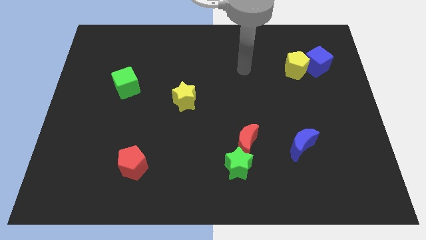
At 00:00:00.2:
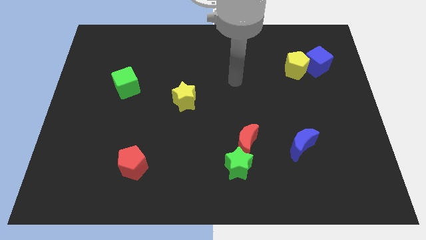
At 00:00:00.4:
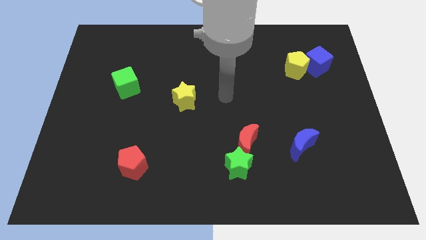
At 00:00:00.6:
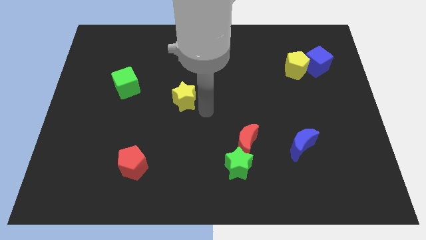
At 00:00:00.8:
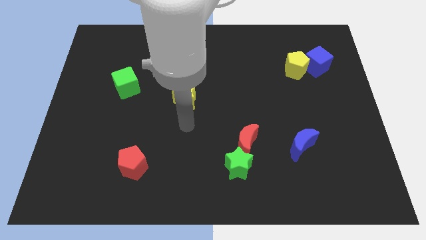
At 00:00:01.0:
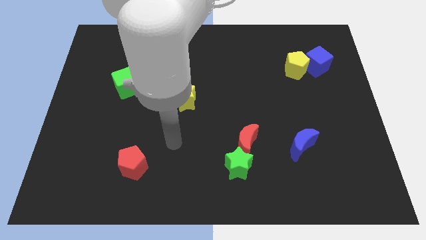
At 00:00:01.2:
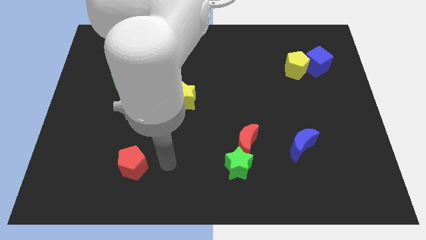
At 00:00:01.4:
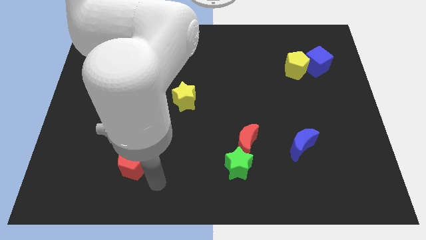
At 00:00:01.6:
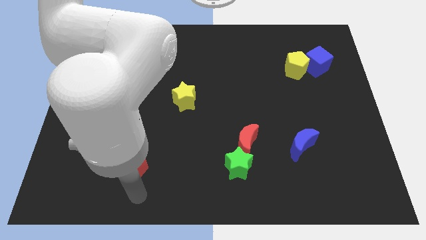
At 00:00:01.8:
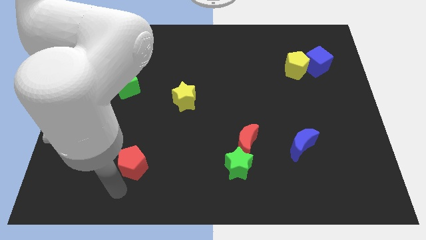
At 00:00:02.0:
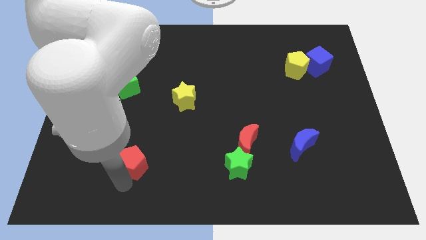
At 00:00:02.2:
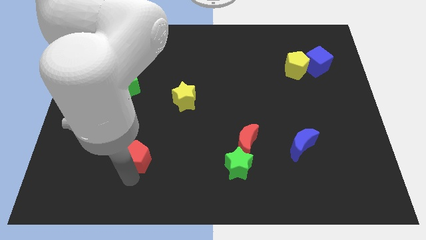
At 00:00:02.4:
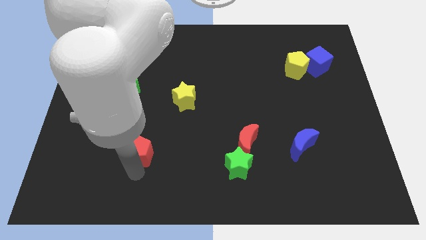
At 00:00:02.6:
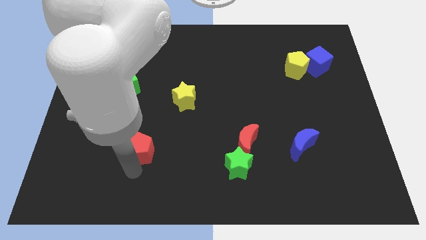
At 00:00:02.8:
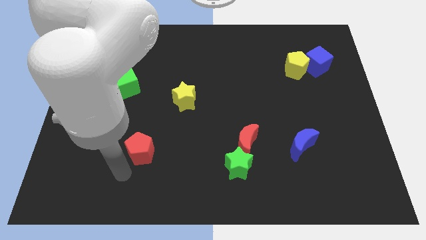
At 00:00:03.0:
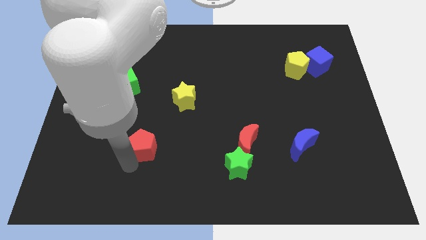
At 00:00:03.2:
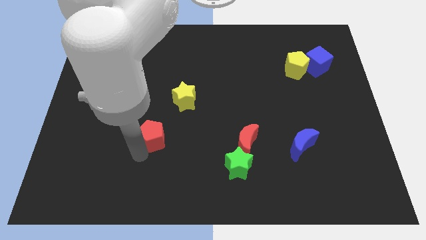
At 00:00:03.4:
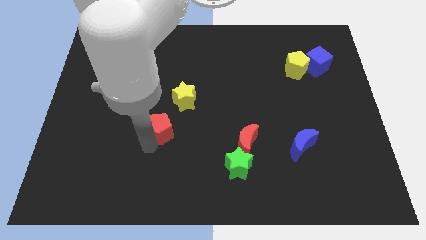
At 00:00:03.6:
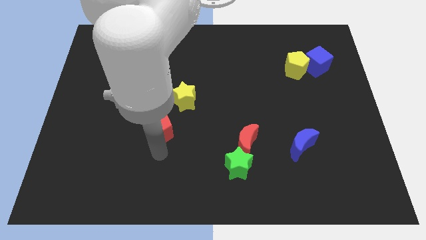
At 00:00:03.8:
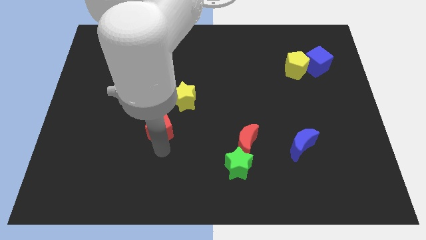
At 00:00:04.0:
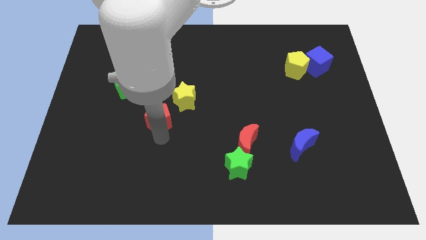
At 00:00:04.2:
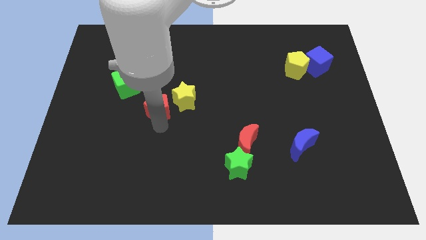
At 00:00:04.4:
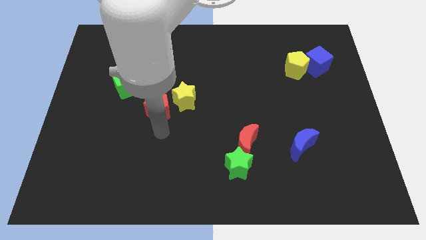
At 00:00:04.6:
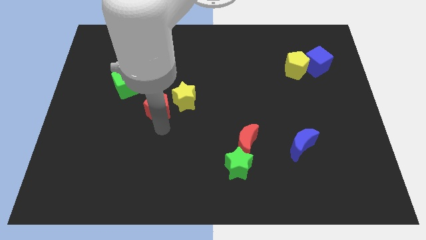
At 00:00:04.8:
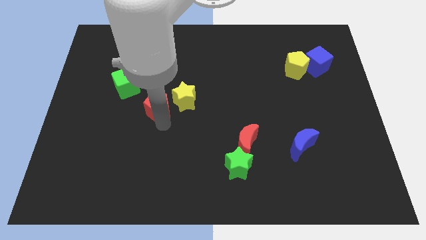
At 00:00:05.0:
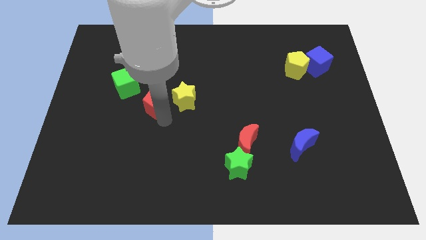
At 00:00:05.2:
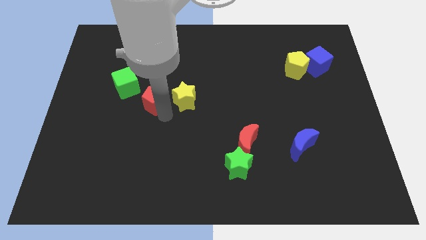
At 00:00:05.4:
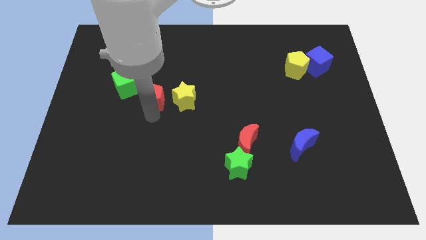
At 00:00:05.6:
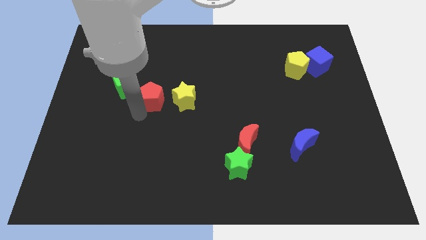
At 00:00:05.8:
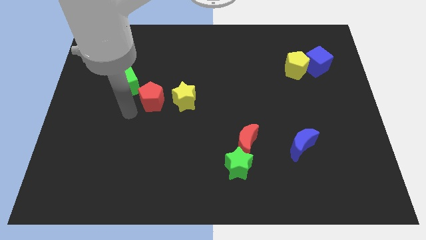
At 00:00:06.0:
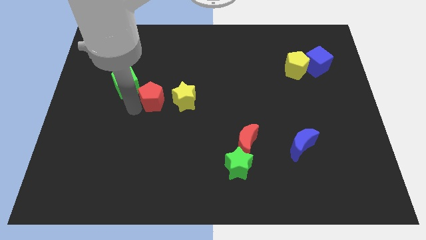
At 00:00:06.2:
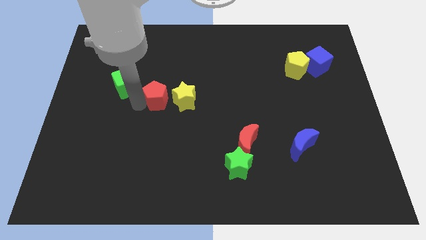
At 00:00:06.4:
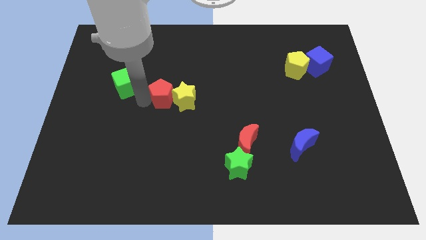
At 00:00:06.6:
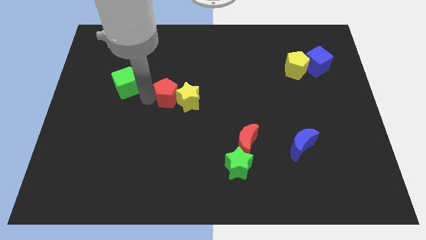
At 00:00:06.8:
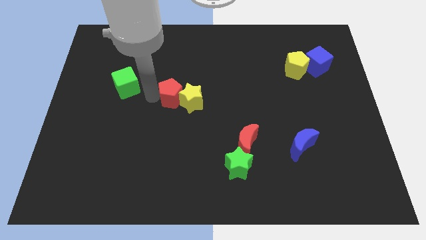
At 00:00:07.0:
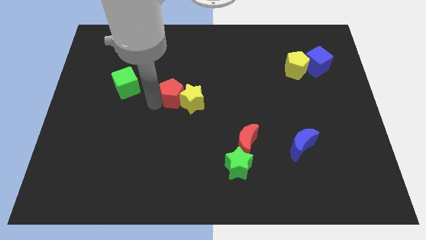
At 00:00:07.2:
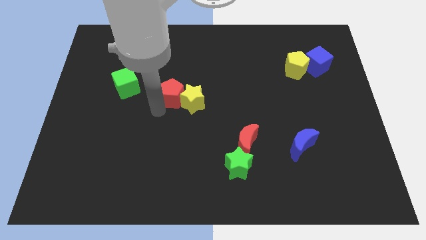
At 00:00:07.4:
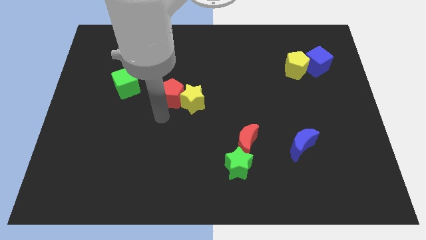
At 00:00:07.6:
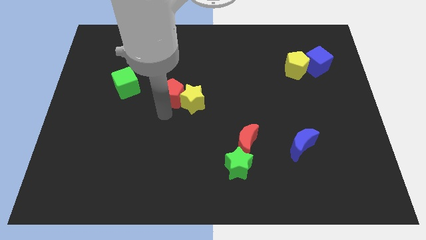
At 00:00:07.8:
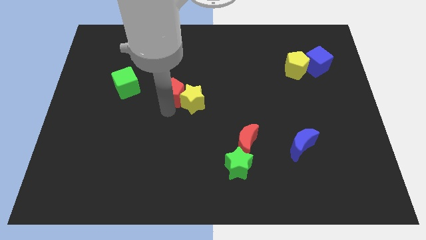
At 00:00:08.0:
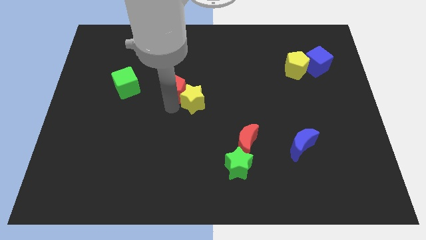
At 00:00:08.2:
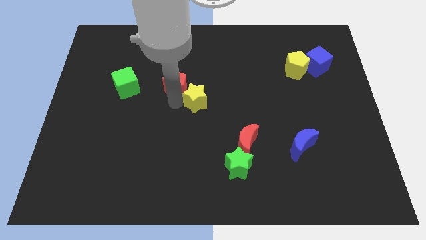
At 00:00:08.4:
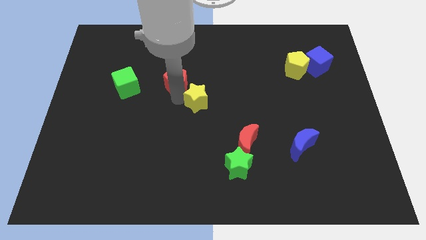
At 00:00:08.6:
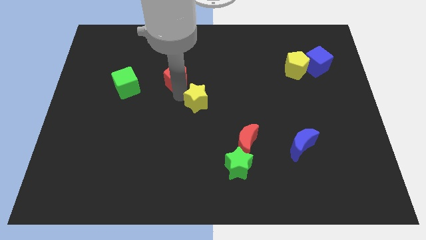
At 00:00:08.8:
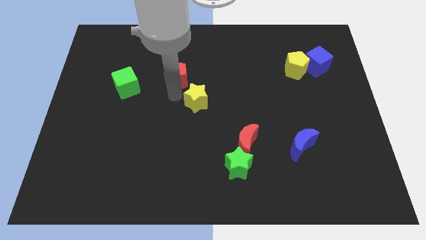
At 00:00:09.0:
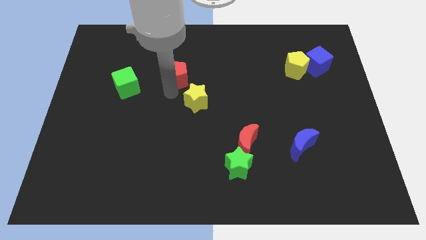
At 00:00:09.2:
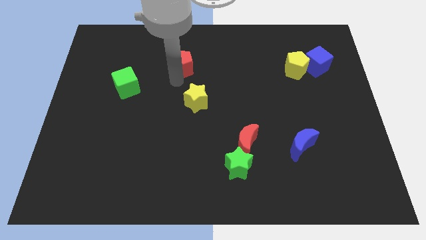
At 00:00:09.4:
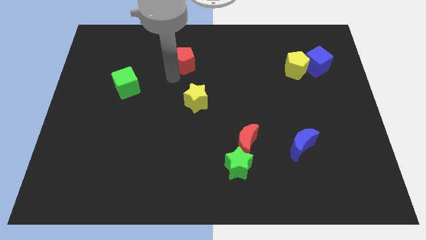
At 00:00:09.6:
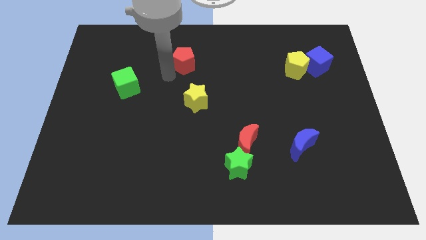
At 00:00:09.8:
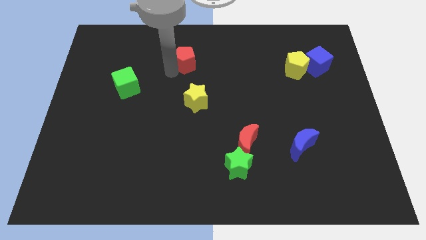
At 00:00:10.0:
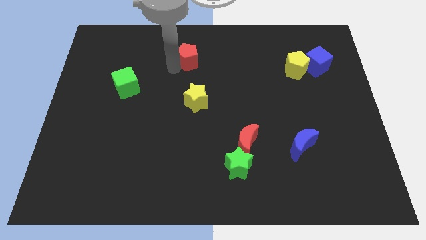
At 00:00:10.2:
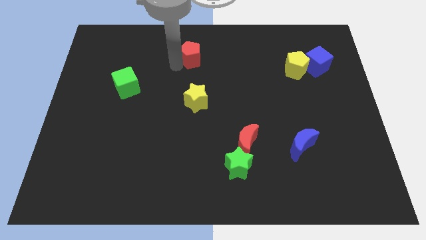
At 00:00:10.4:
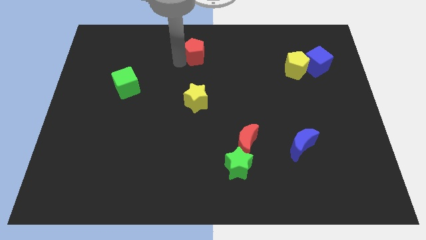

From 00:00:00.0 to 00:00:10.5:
put the red pentagon to the top

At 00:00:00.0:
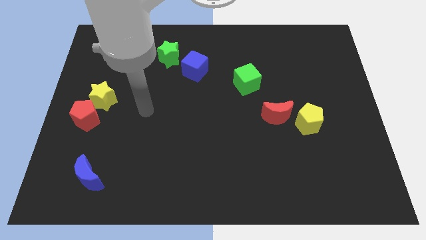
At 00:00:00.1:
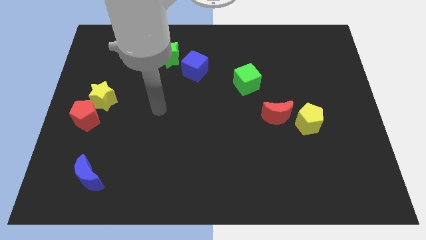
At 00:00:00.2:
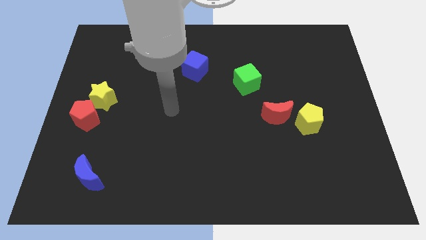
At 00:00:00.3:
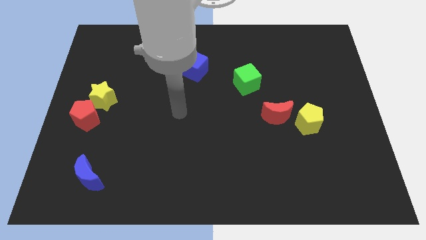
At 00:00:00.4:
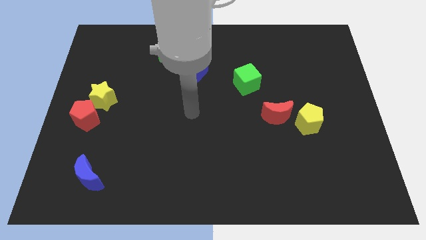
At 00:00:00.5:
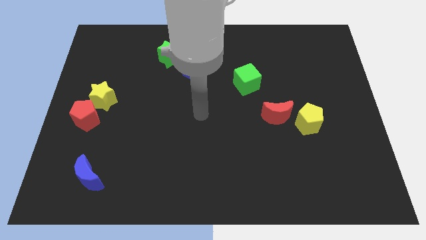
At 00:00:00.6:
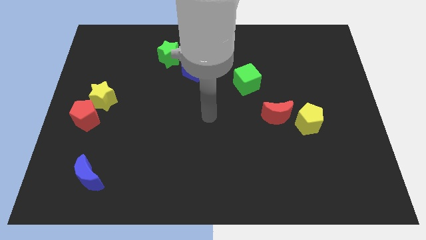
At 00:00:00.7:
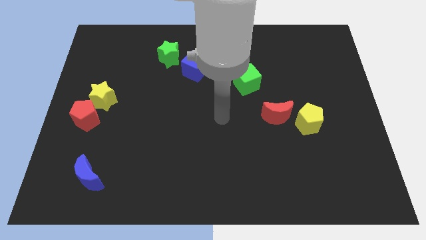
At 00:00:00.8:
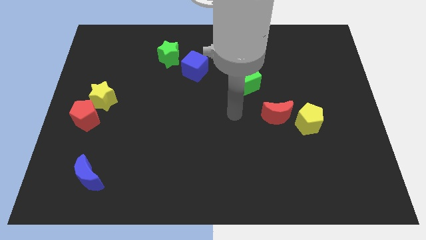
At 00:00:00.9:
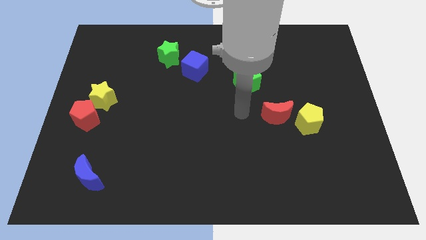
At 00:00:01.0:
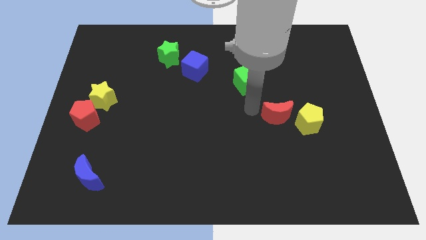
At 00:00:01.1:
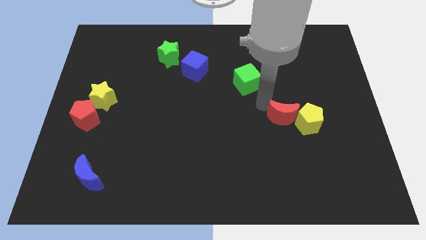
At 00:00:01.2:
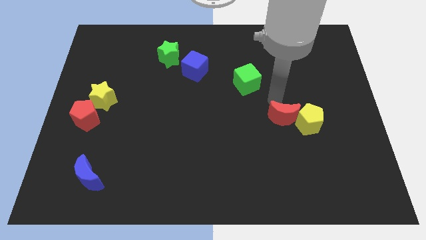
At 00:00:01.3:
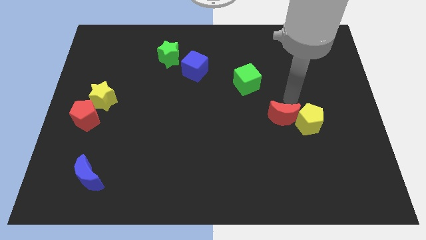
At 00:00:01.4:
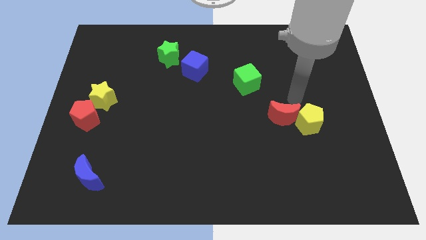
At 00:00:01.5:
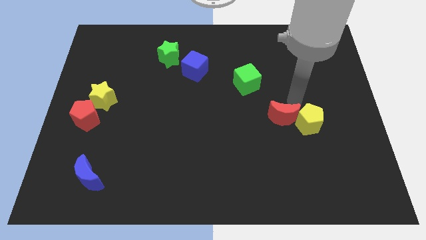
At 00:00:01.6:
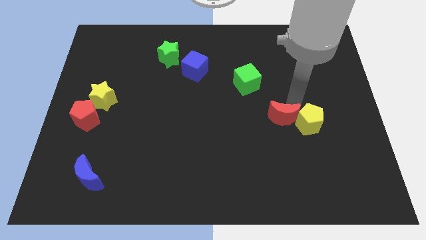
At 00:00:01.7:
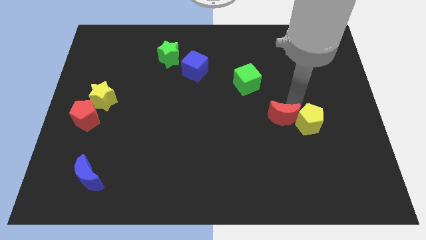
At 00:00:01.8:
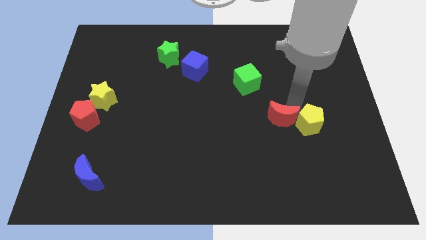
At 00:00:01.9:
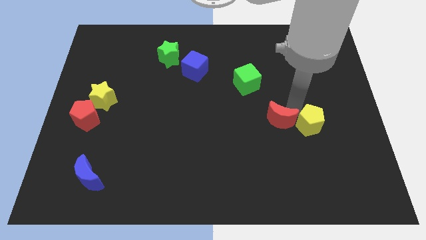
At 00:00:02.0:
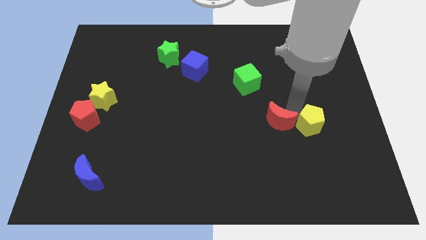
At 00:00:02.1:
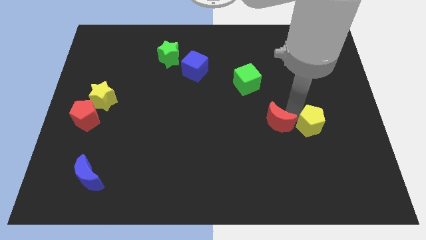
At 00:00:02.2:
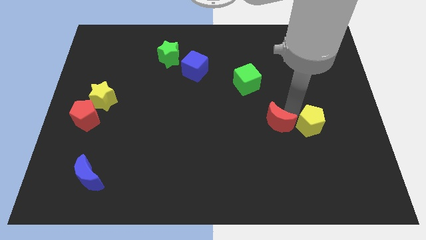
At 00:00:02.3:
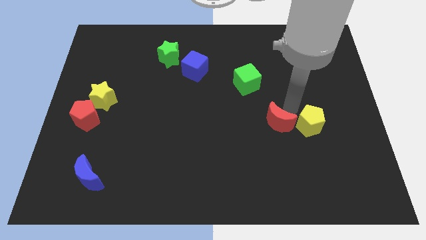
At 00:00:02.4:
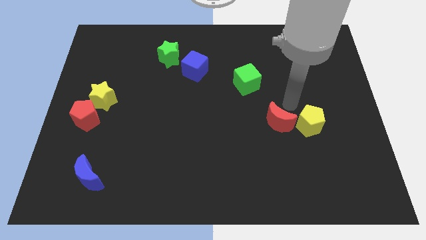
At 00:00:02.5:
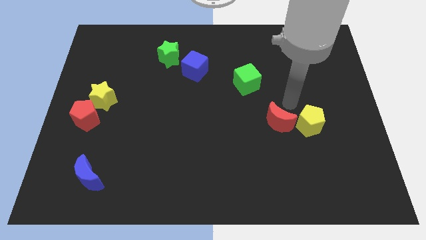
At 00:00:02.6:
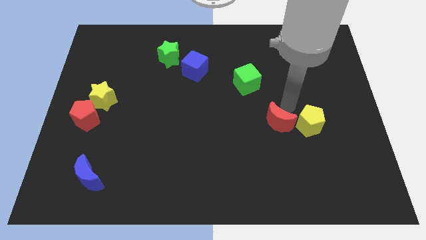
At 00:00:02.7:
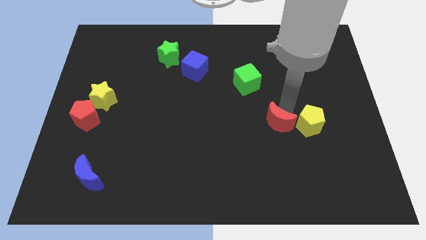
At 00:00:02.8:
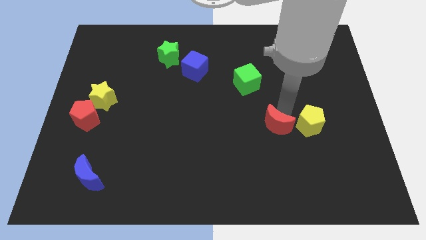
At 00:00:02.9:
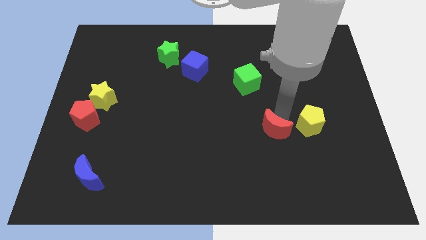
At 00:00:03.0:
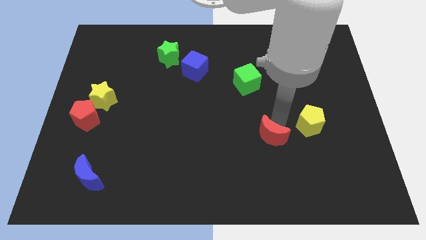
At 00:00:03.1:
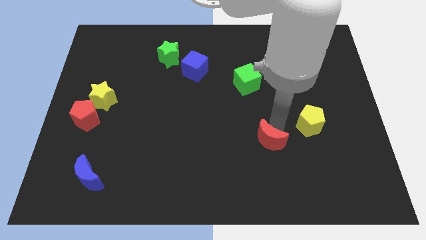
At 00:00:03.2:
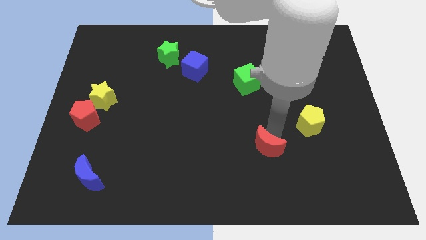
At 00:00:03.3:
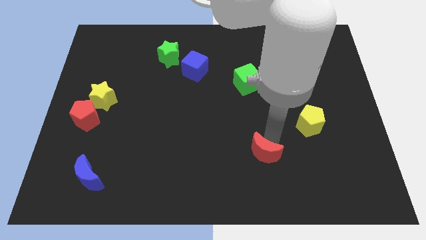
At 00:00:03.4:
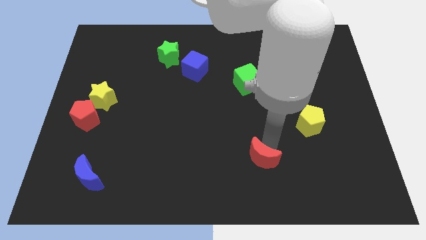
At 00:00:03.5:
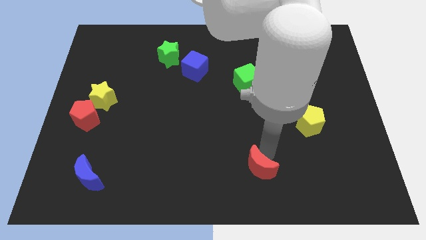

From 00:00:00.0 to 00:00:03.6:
push the red moon to the bottom
